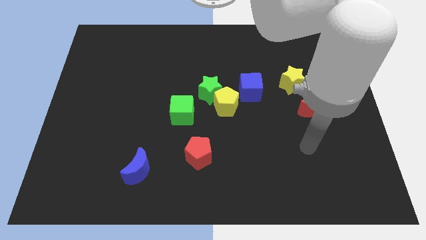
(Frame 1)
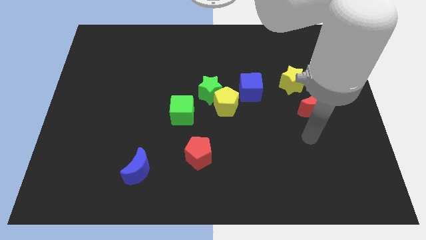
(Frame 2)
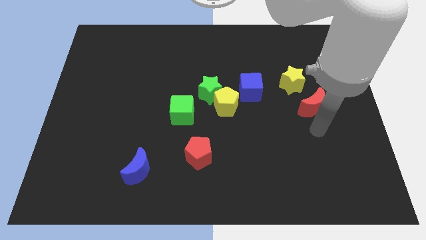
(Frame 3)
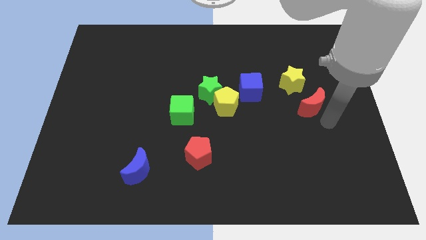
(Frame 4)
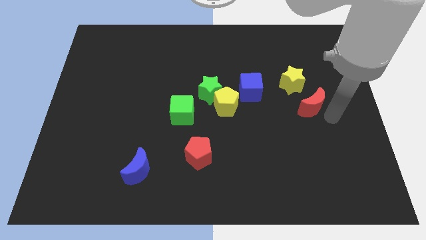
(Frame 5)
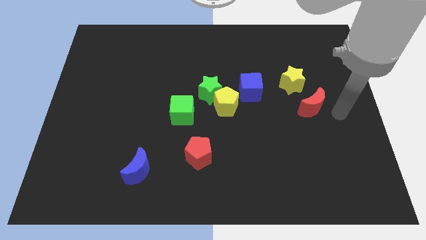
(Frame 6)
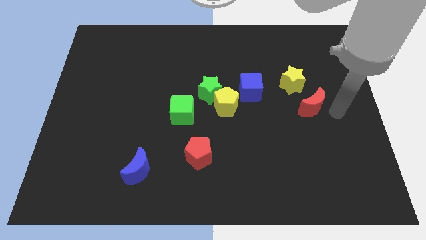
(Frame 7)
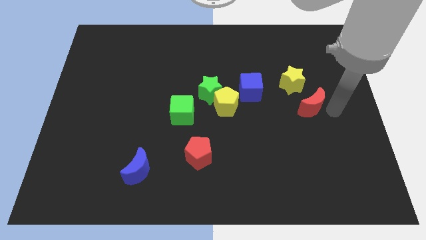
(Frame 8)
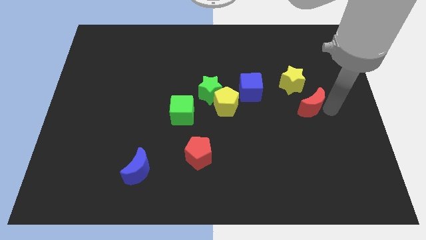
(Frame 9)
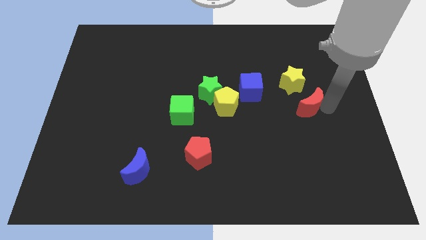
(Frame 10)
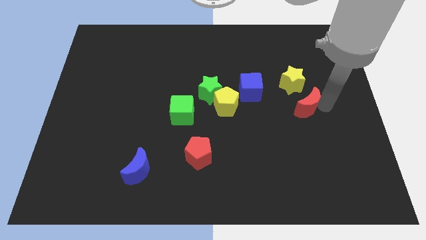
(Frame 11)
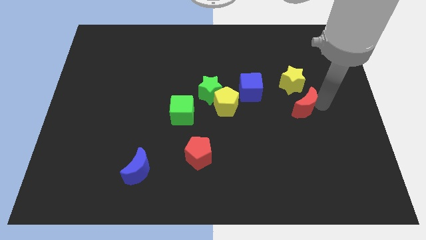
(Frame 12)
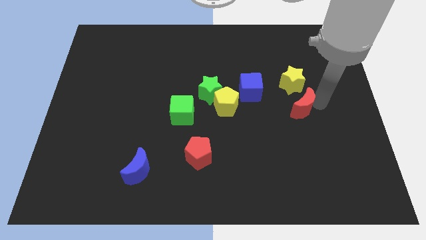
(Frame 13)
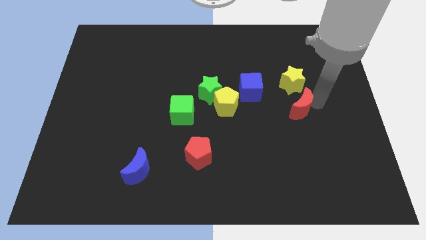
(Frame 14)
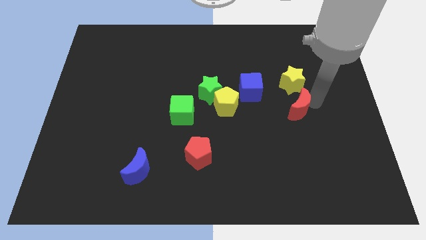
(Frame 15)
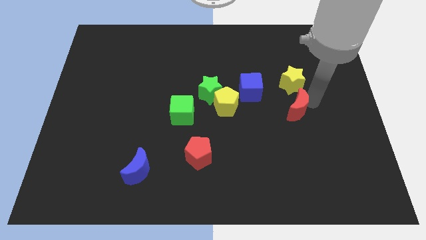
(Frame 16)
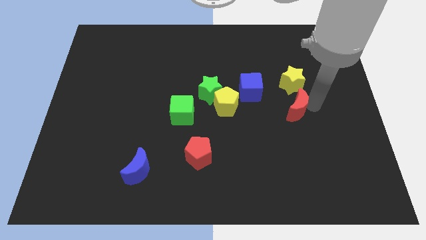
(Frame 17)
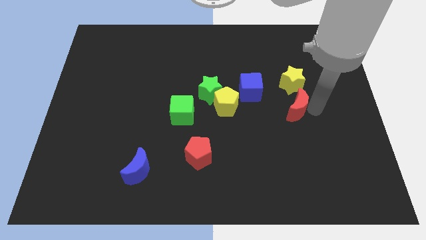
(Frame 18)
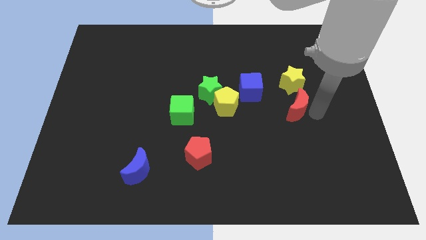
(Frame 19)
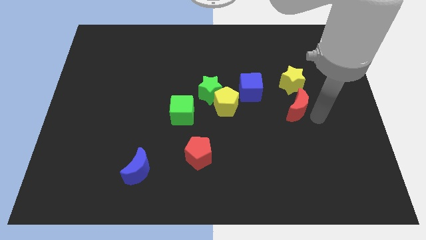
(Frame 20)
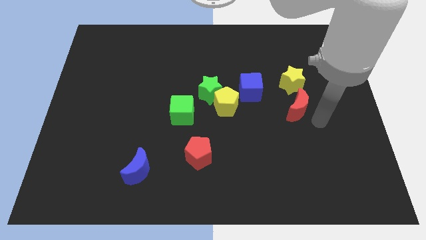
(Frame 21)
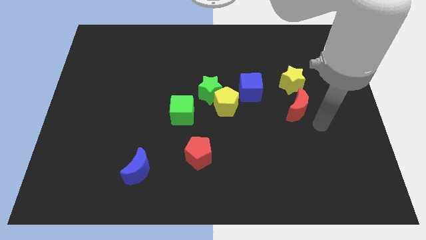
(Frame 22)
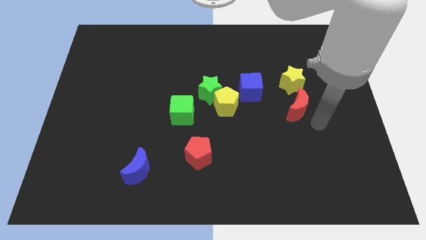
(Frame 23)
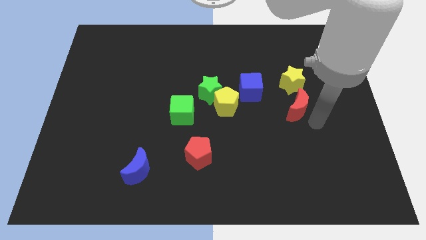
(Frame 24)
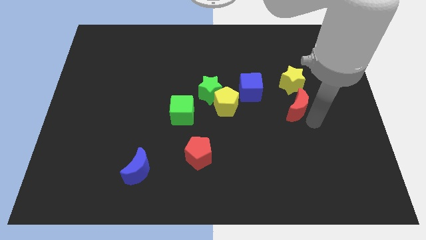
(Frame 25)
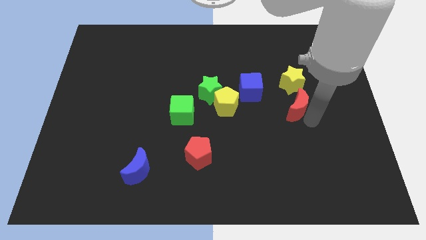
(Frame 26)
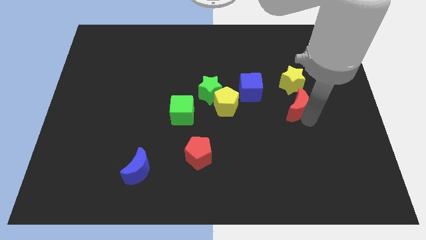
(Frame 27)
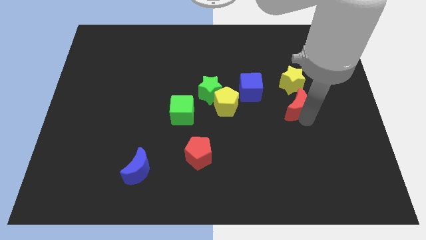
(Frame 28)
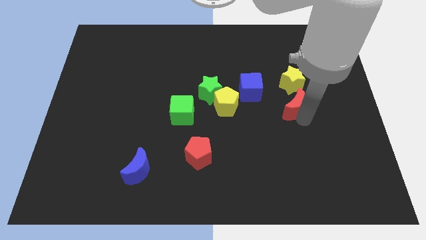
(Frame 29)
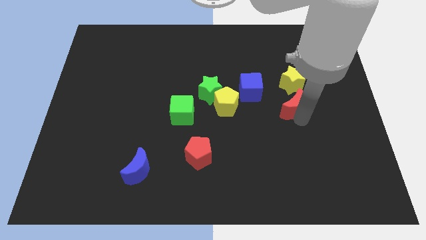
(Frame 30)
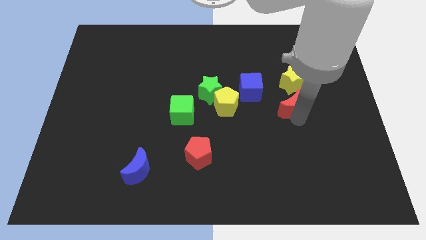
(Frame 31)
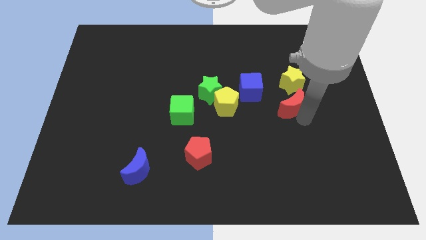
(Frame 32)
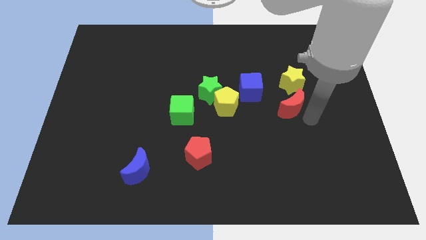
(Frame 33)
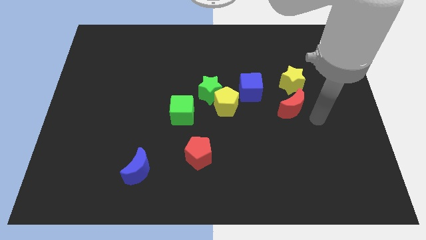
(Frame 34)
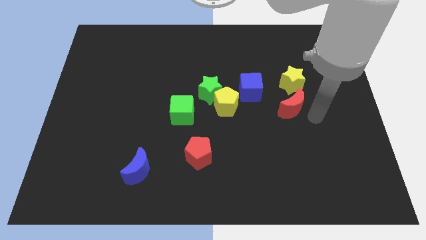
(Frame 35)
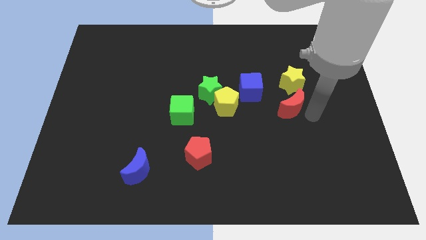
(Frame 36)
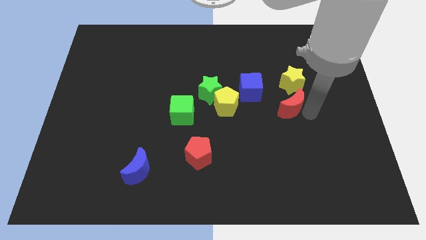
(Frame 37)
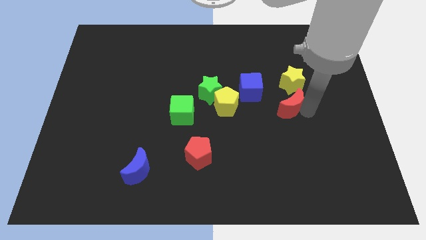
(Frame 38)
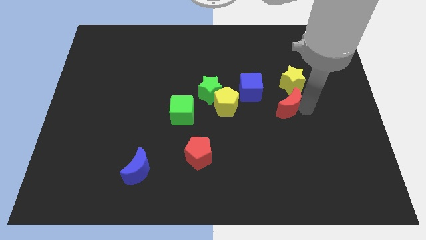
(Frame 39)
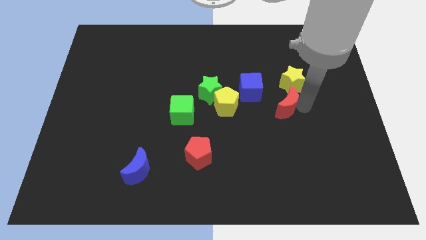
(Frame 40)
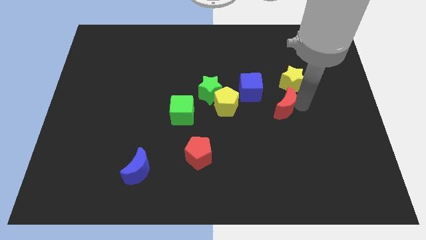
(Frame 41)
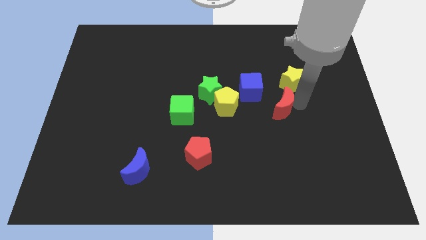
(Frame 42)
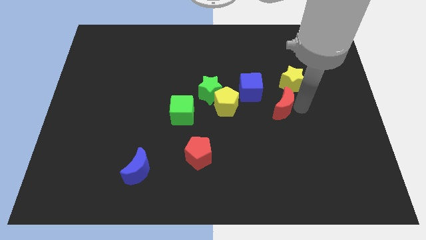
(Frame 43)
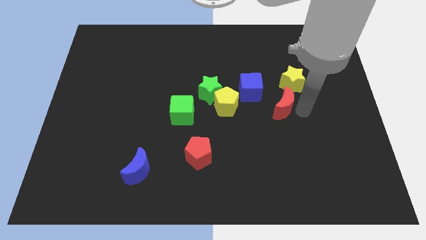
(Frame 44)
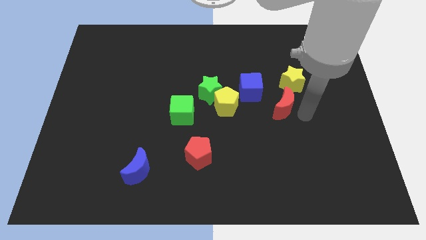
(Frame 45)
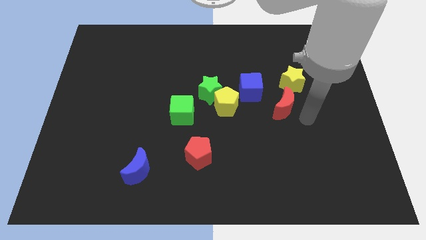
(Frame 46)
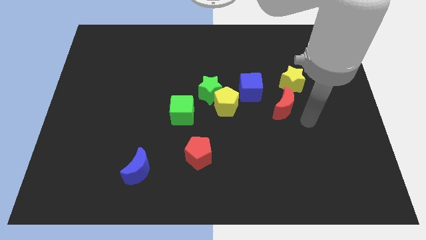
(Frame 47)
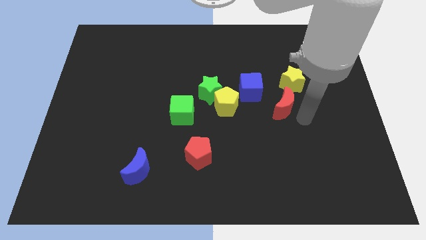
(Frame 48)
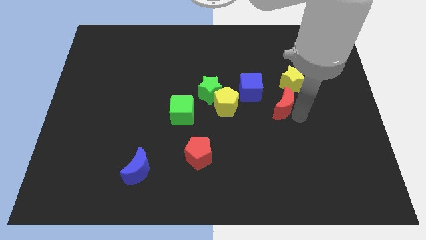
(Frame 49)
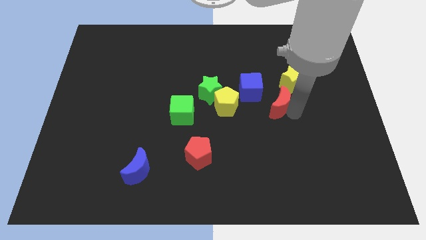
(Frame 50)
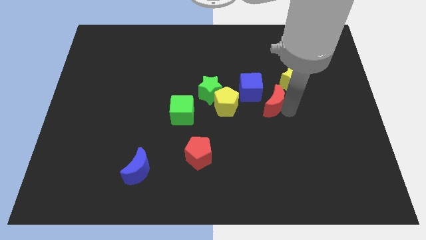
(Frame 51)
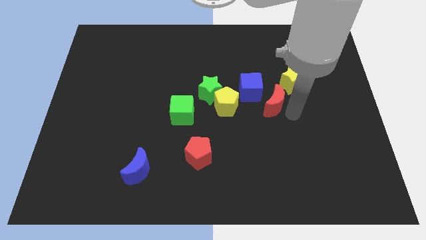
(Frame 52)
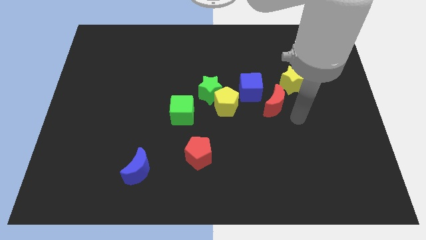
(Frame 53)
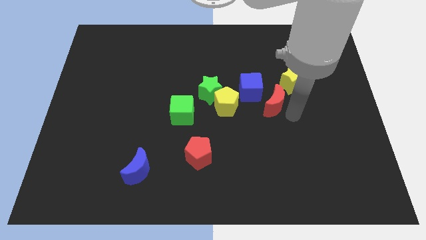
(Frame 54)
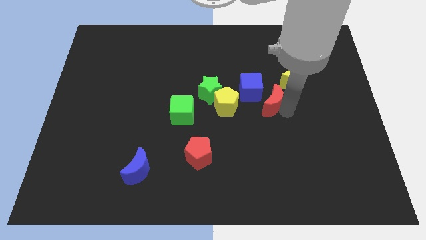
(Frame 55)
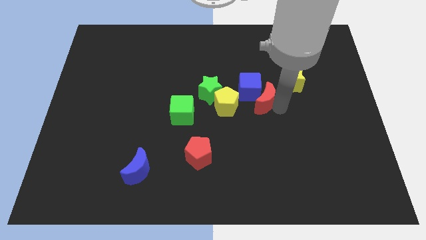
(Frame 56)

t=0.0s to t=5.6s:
push the red moon next to the blue cube

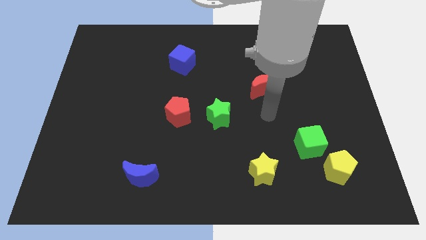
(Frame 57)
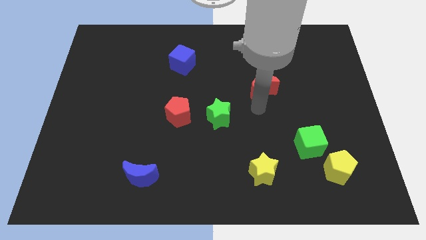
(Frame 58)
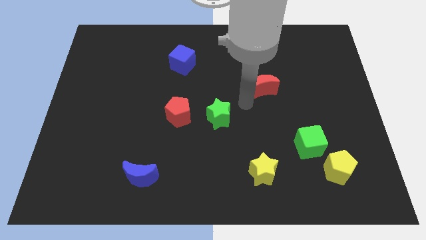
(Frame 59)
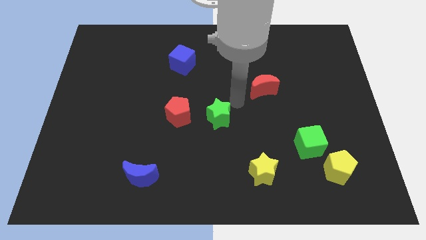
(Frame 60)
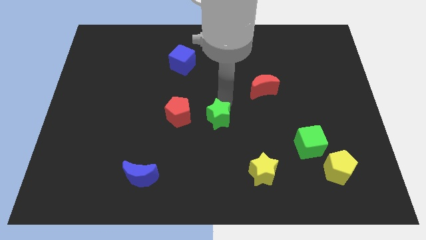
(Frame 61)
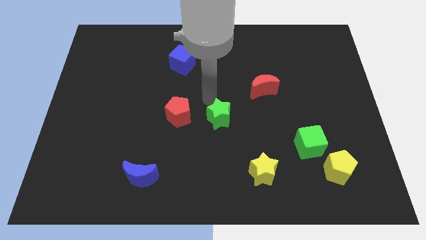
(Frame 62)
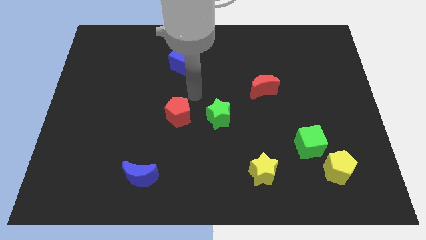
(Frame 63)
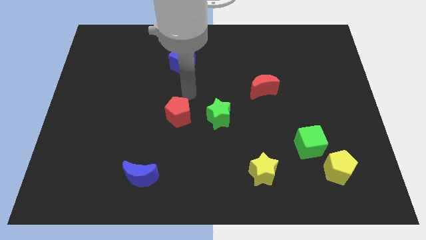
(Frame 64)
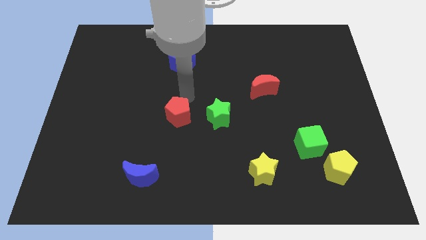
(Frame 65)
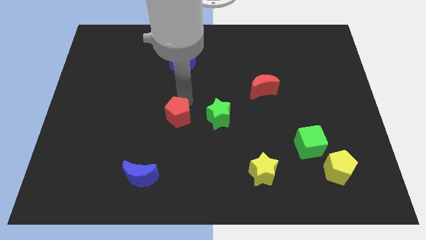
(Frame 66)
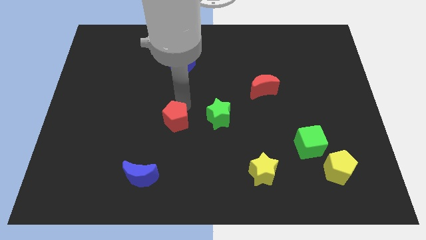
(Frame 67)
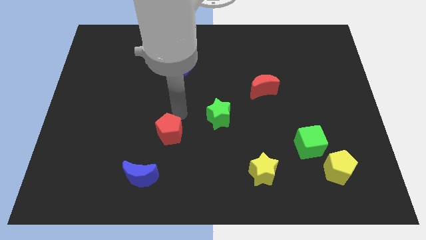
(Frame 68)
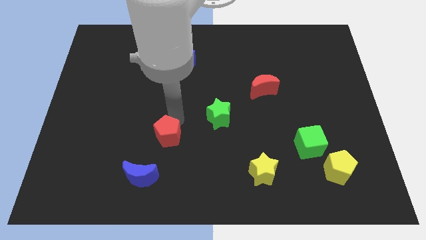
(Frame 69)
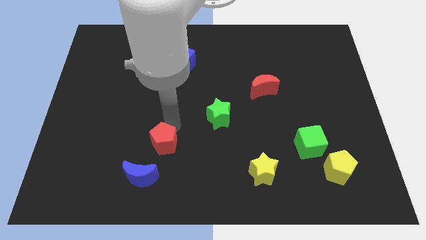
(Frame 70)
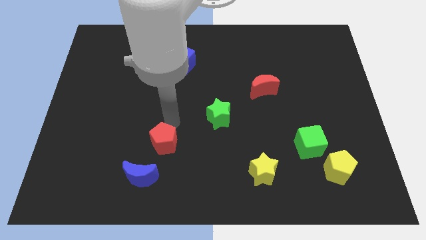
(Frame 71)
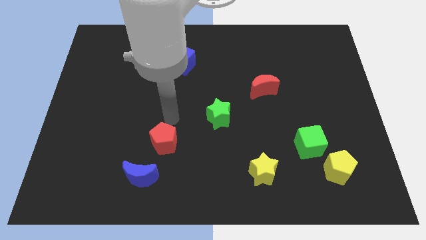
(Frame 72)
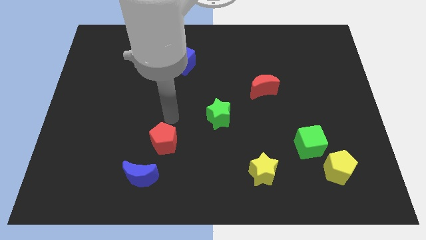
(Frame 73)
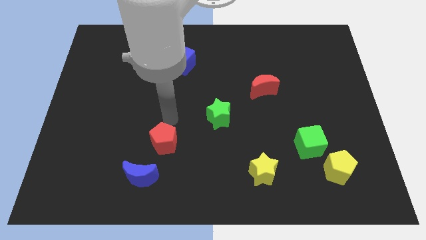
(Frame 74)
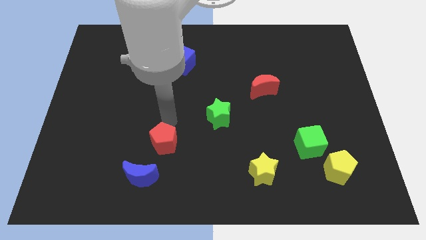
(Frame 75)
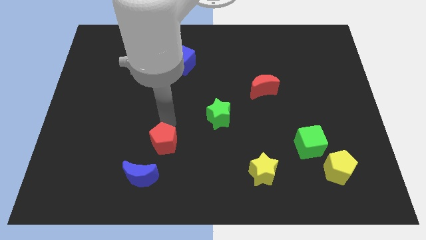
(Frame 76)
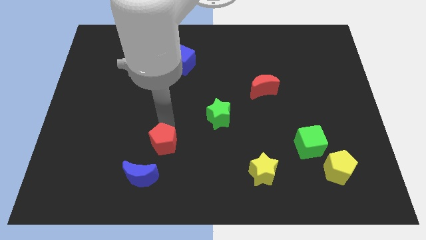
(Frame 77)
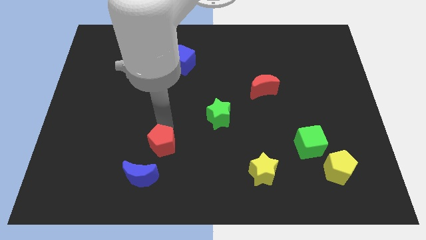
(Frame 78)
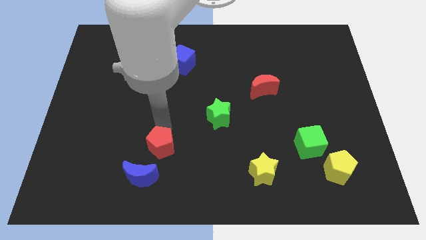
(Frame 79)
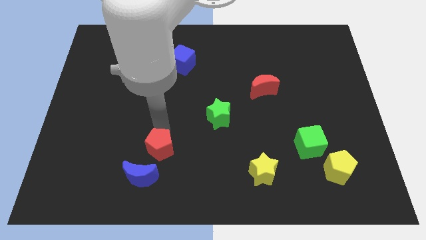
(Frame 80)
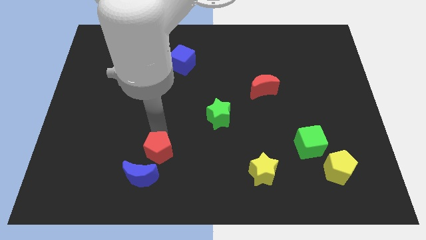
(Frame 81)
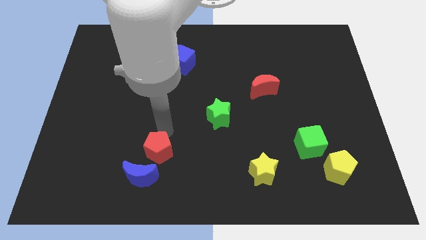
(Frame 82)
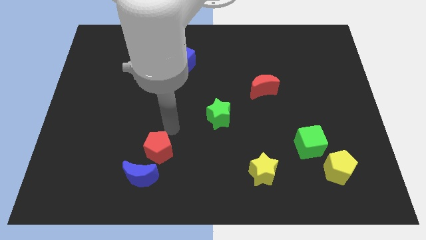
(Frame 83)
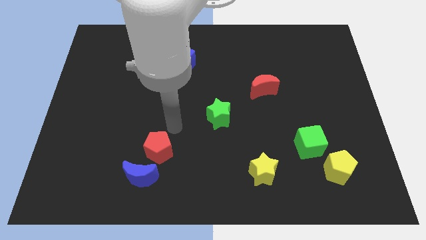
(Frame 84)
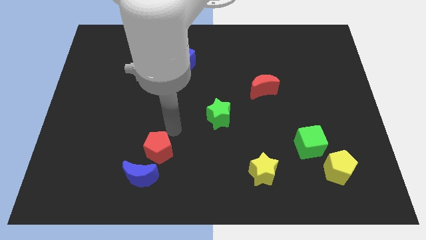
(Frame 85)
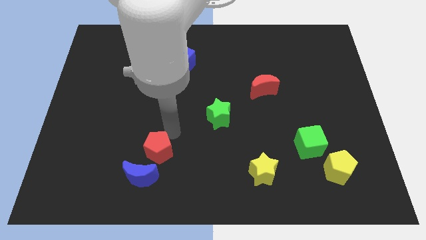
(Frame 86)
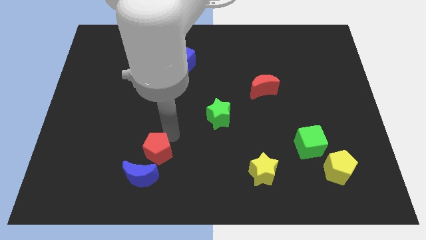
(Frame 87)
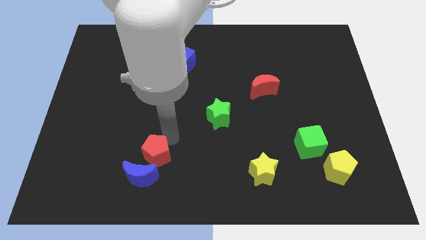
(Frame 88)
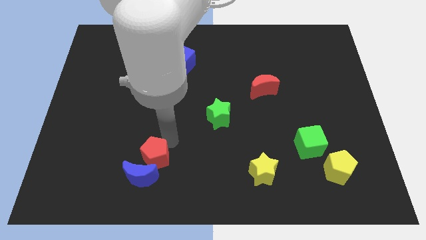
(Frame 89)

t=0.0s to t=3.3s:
slide the red pentagon to the blue moon
